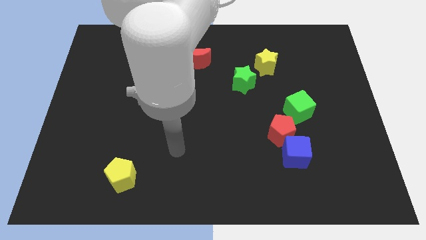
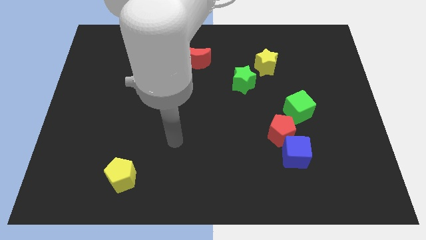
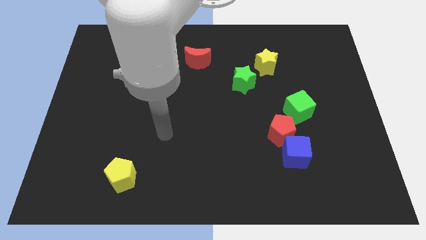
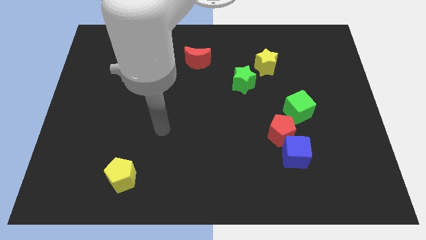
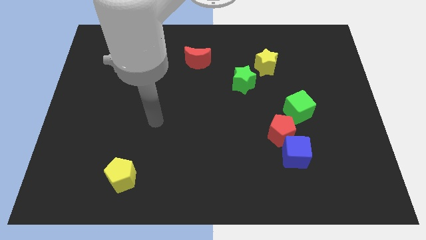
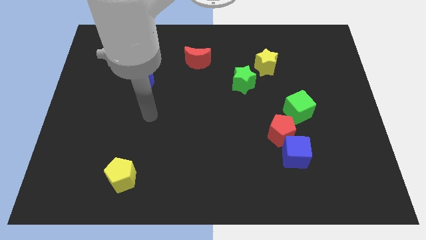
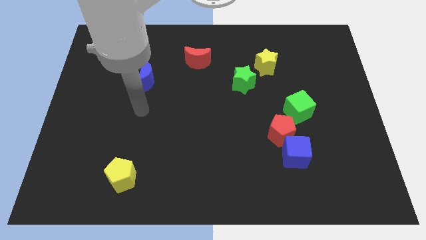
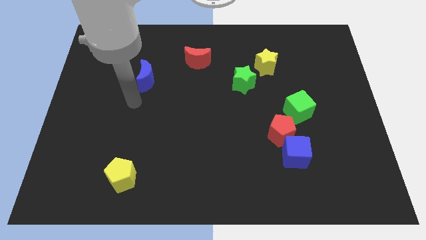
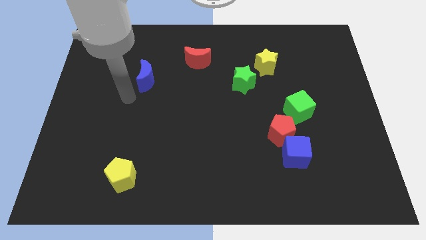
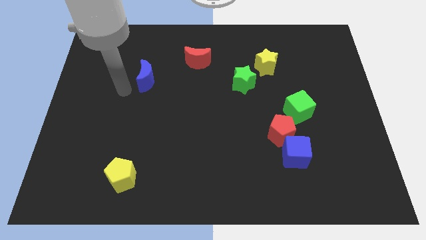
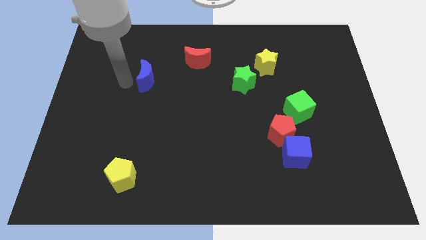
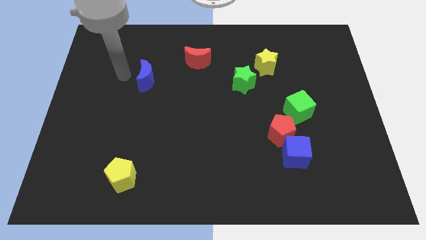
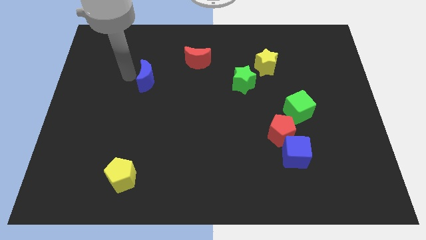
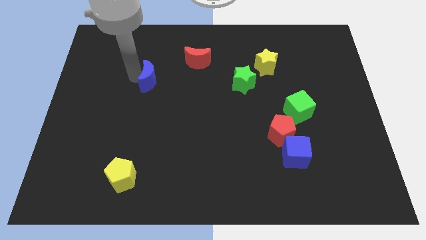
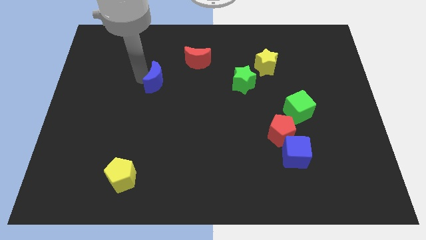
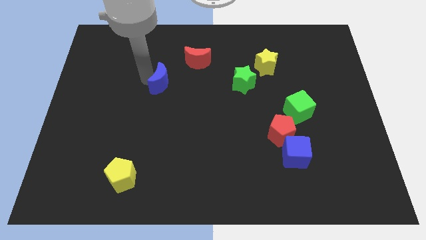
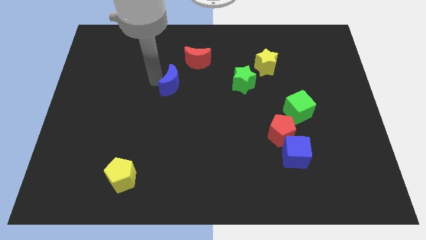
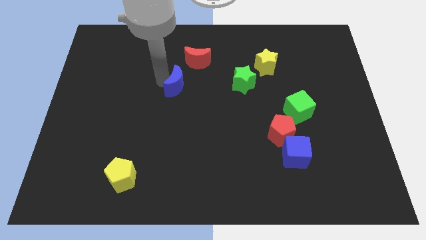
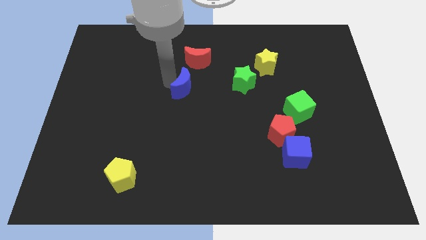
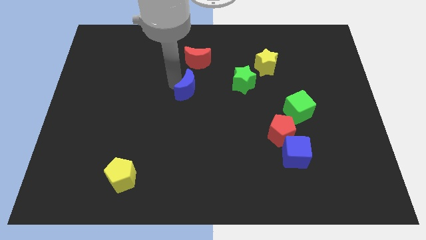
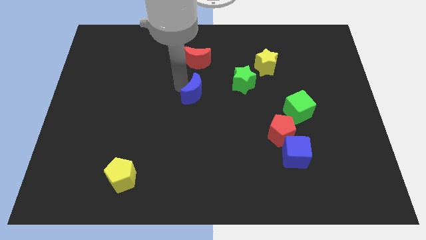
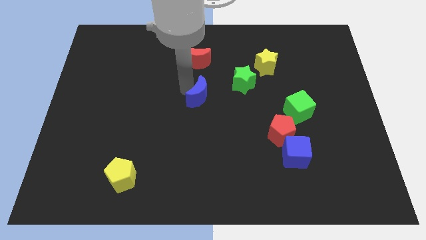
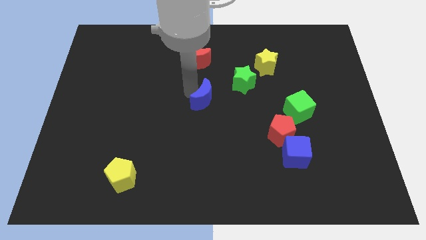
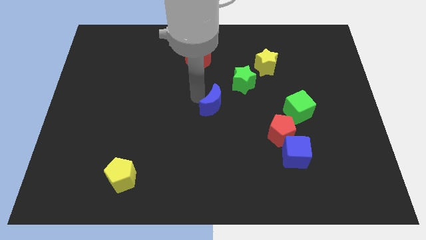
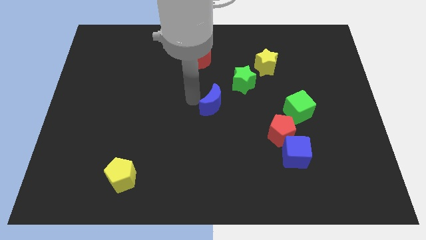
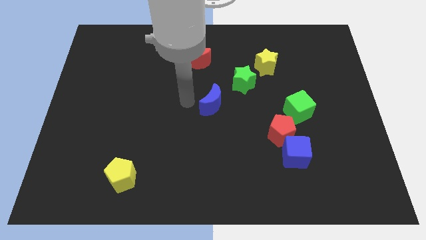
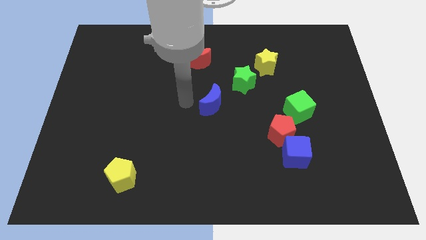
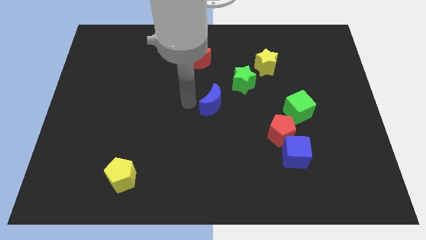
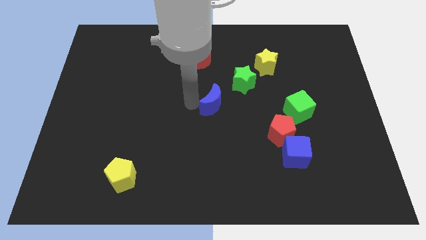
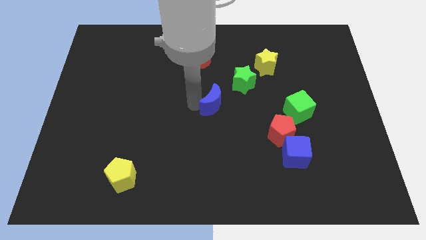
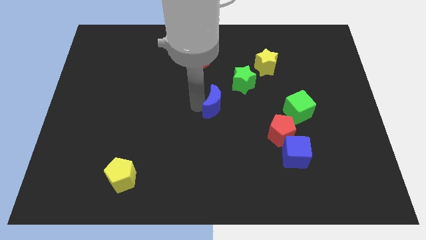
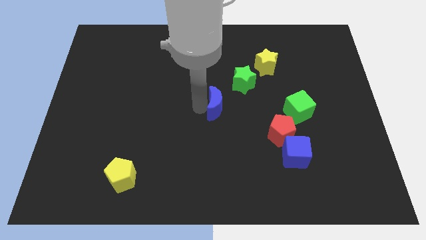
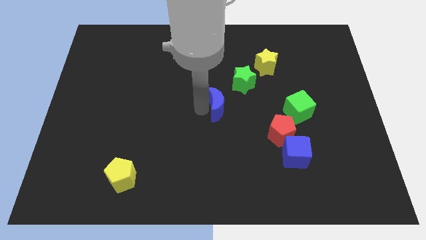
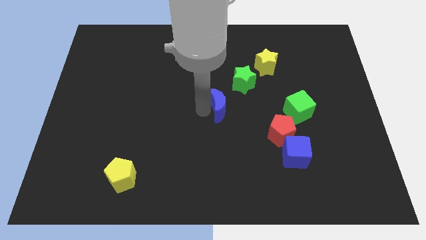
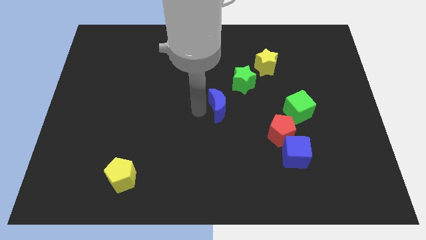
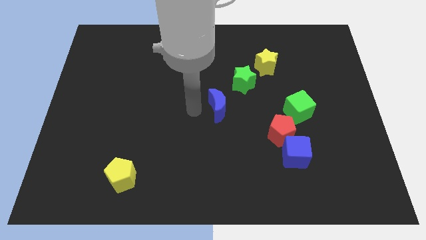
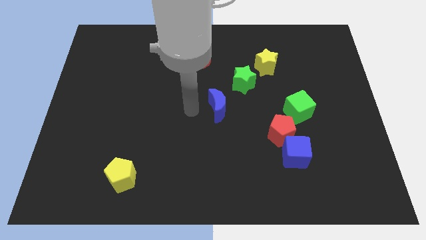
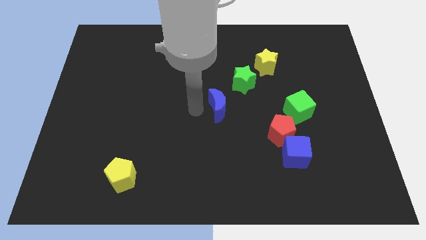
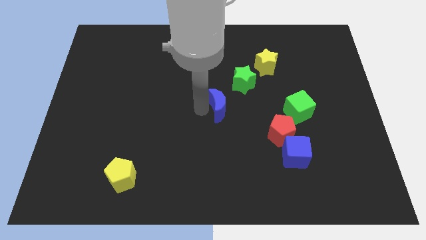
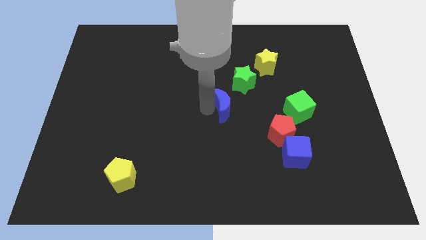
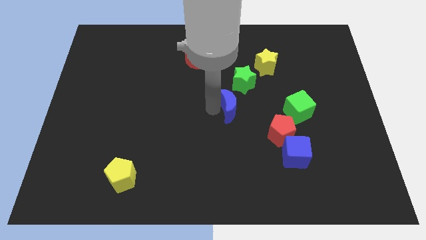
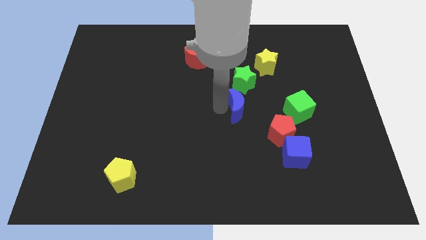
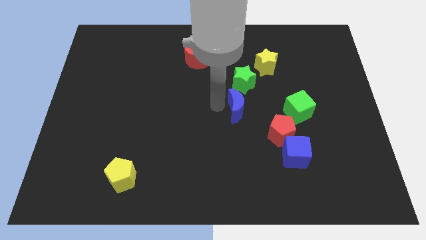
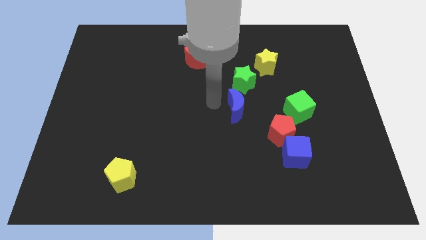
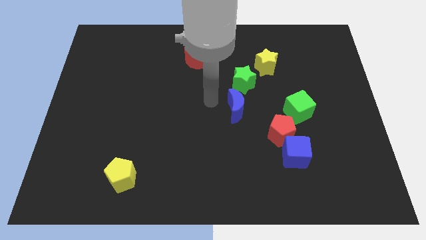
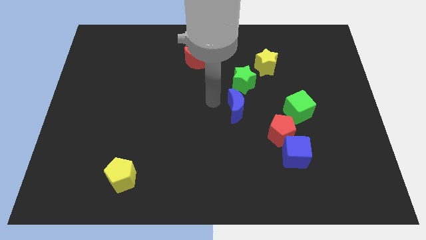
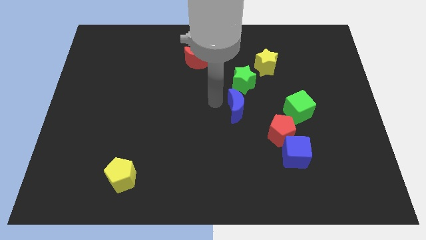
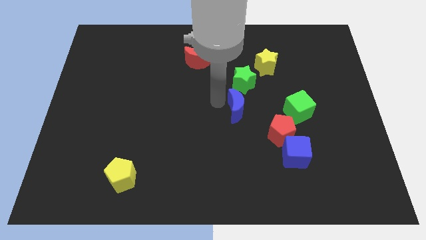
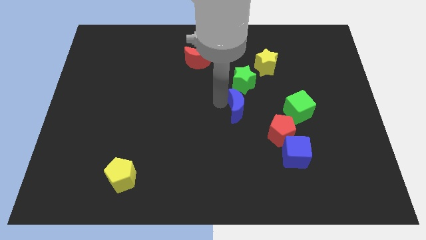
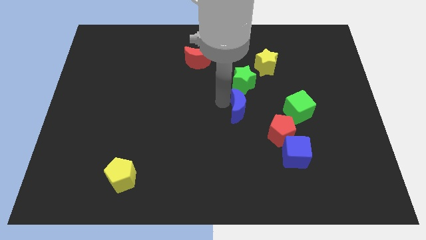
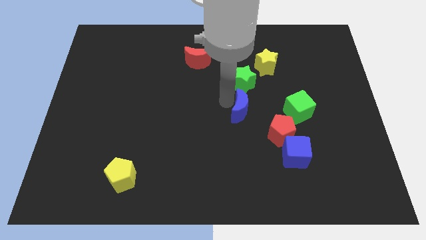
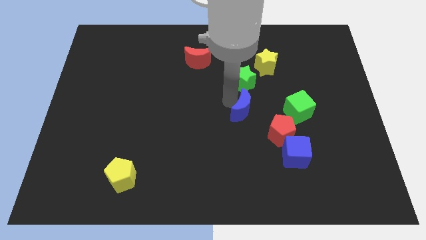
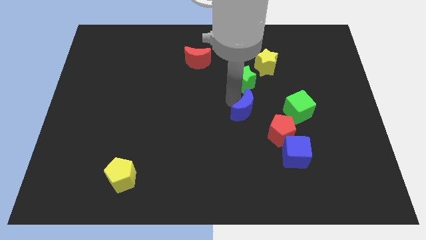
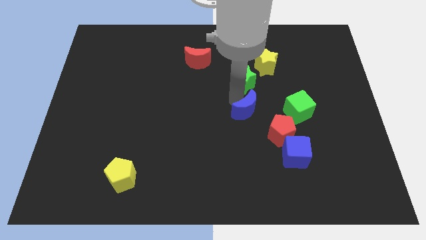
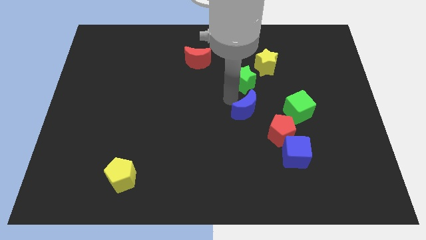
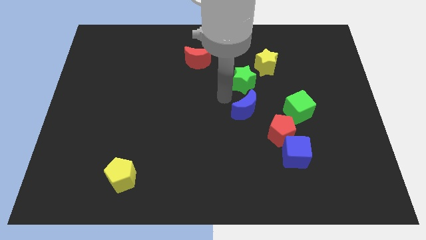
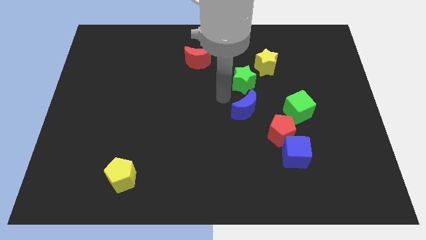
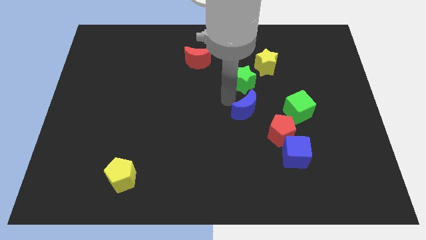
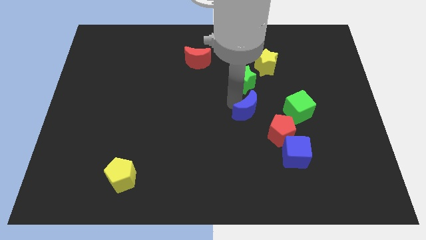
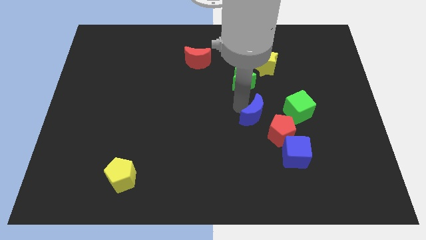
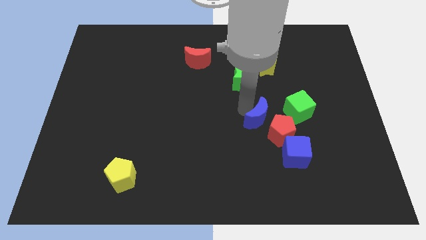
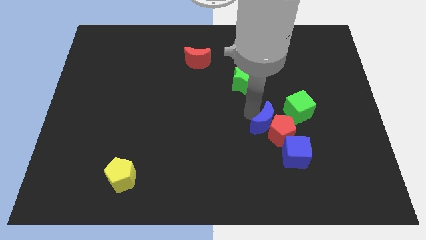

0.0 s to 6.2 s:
move the blue moon towards the red pentagon

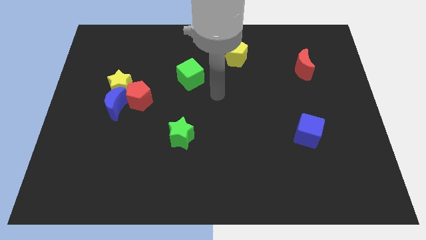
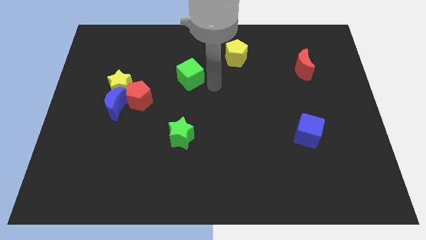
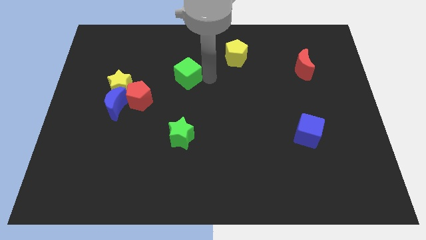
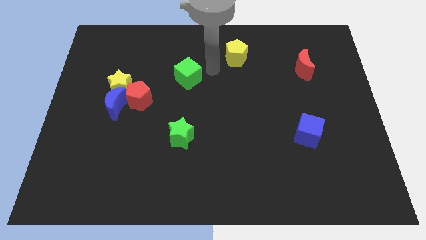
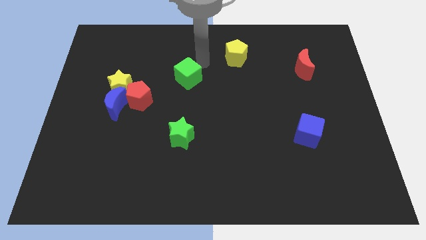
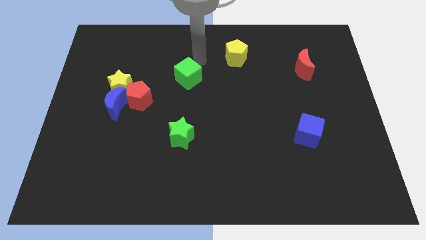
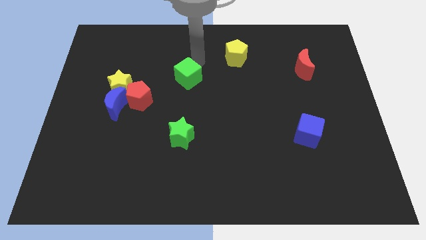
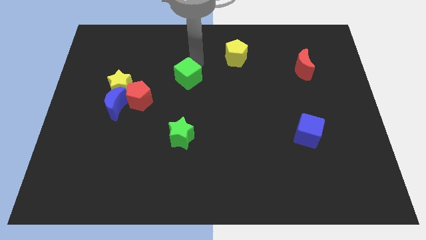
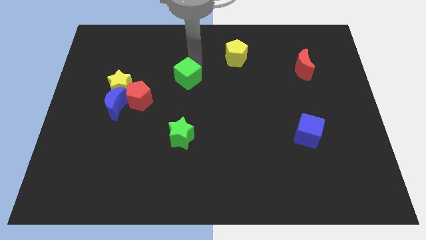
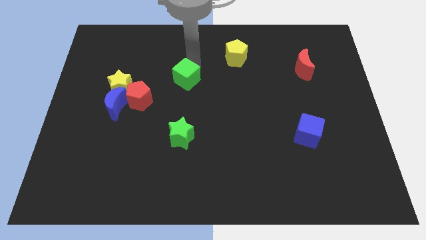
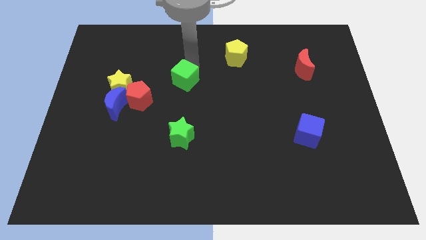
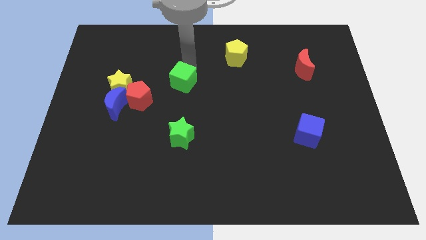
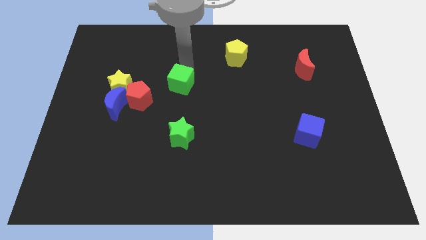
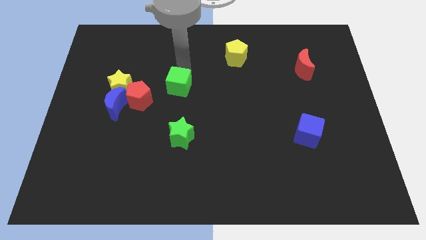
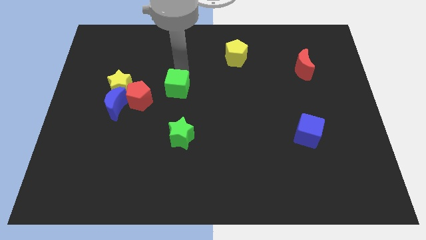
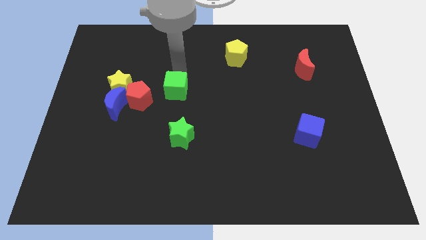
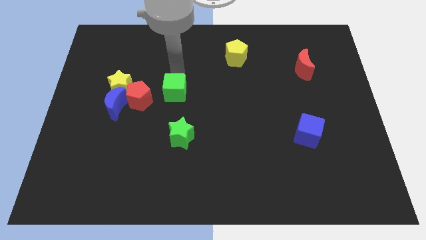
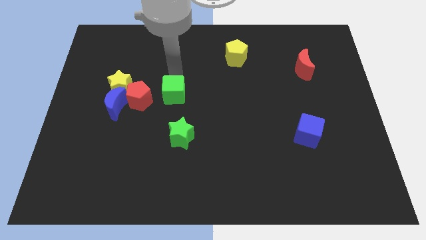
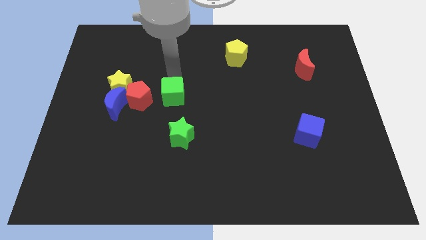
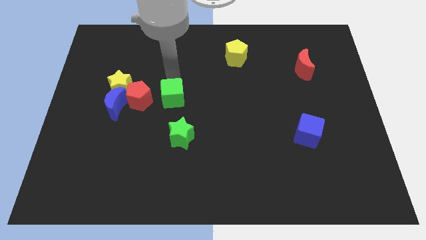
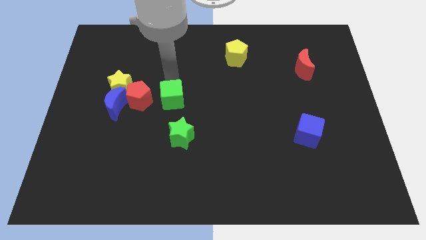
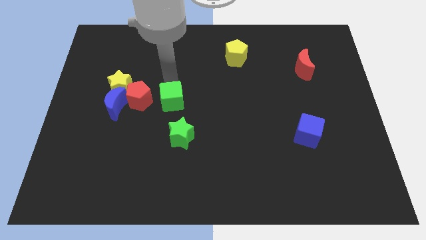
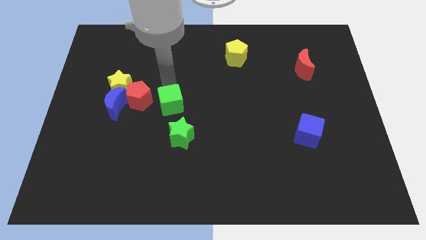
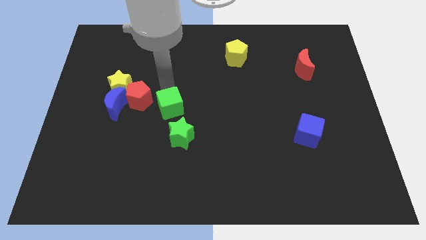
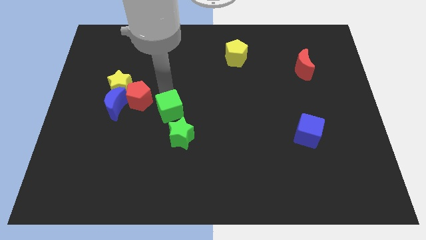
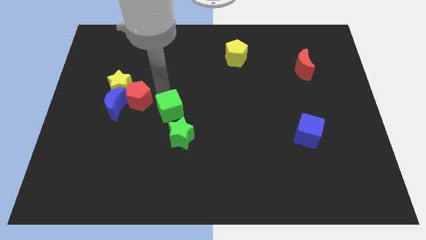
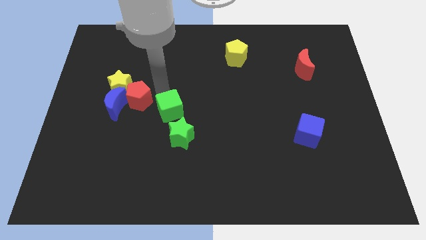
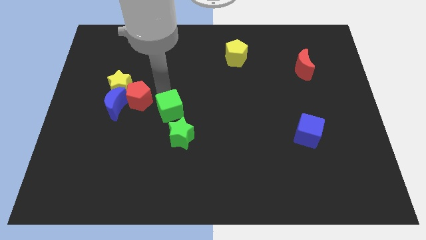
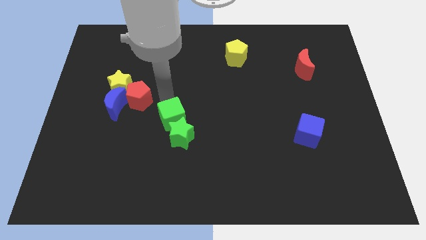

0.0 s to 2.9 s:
put the green cube next to the green star
